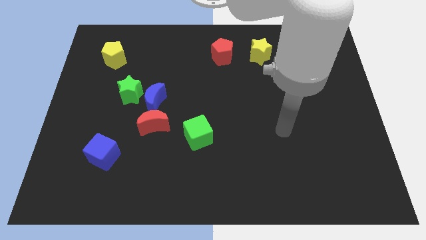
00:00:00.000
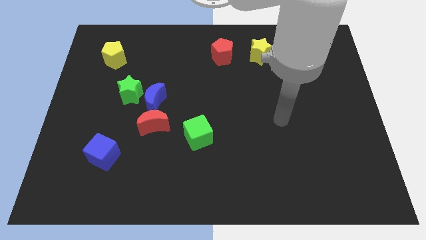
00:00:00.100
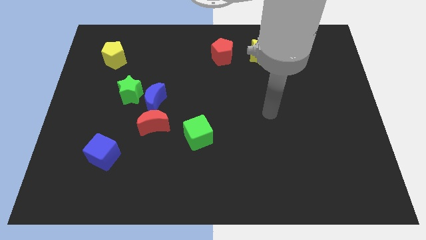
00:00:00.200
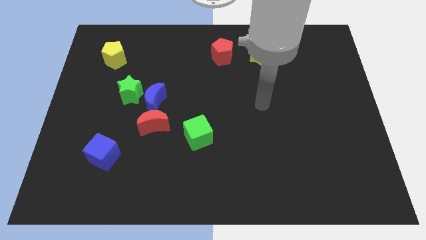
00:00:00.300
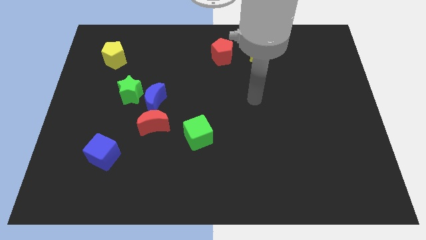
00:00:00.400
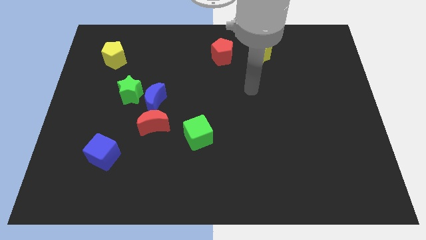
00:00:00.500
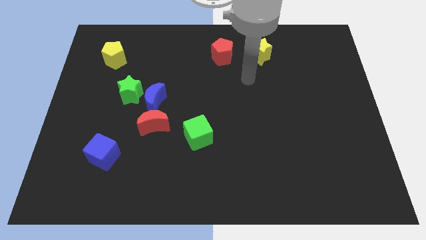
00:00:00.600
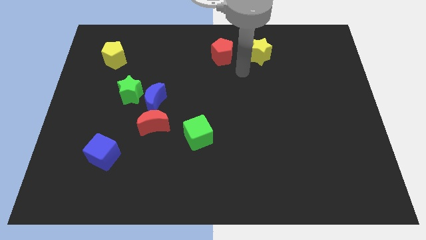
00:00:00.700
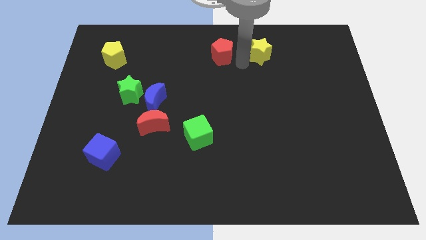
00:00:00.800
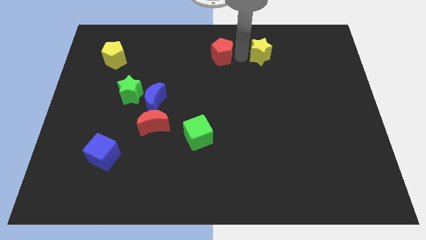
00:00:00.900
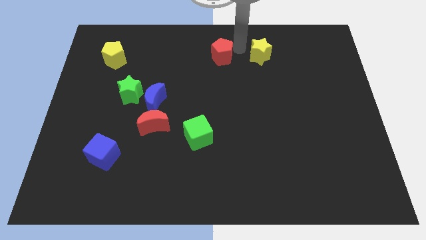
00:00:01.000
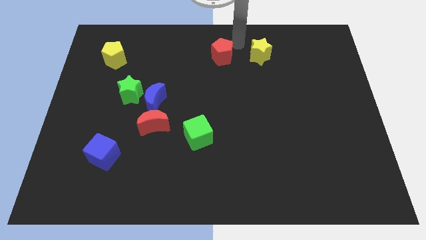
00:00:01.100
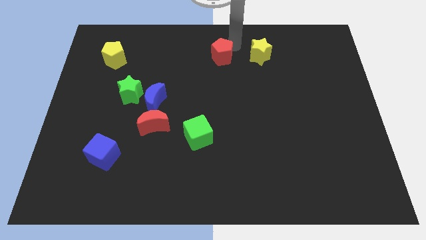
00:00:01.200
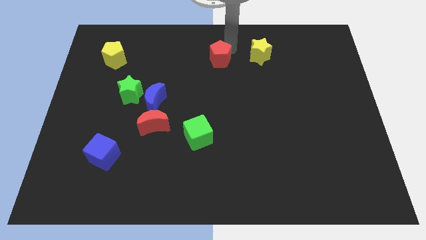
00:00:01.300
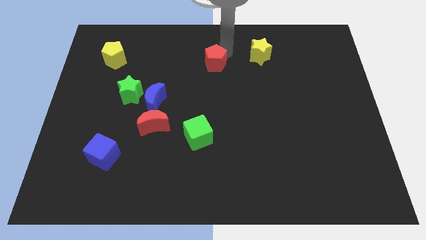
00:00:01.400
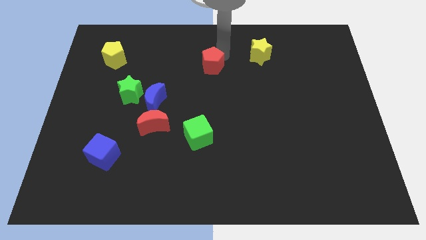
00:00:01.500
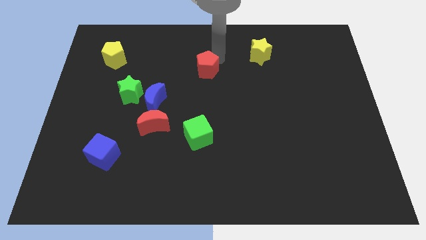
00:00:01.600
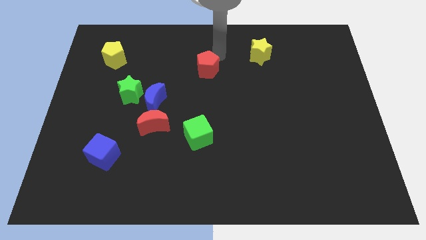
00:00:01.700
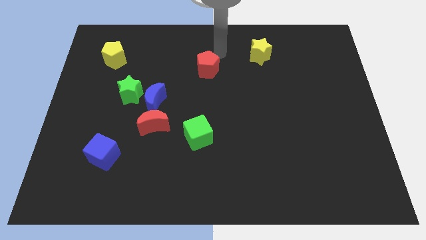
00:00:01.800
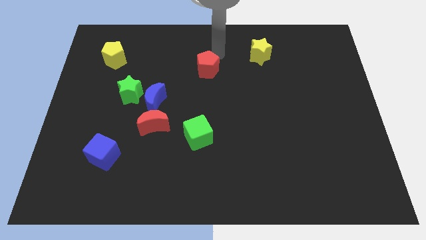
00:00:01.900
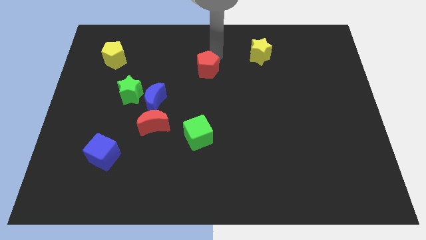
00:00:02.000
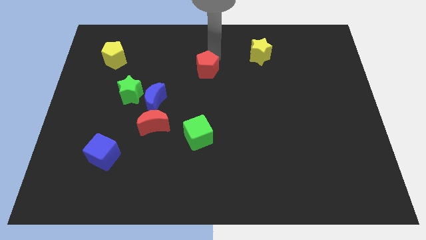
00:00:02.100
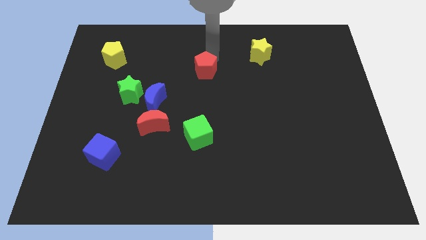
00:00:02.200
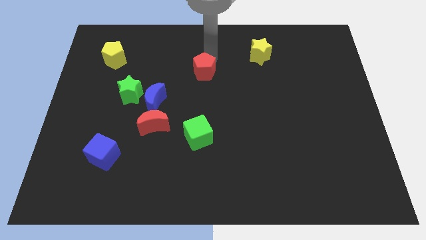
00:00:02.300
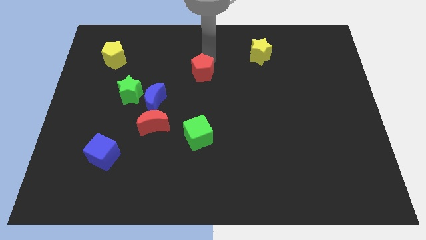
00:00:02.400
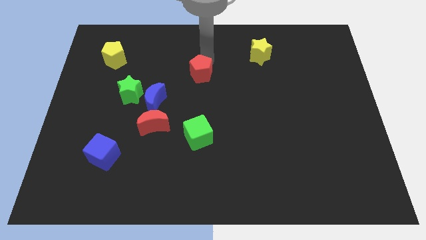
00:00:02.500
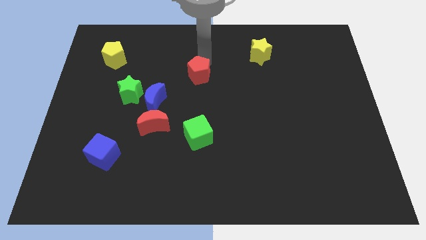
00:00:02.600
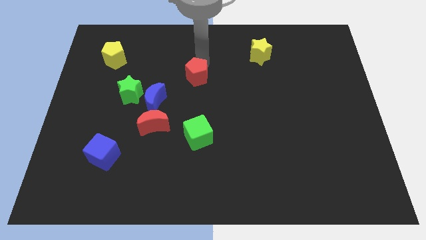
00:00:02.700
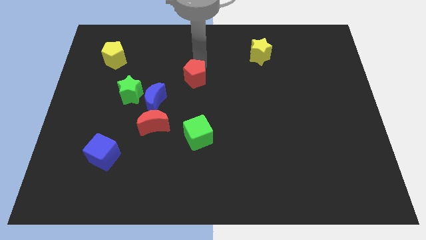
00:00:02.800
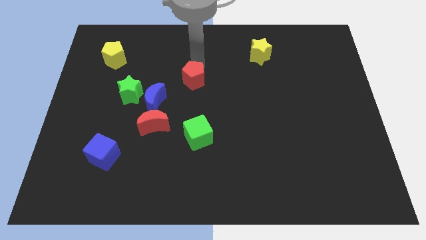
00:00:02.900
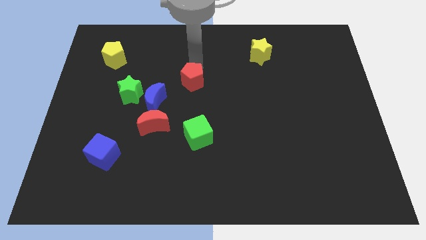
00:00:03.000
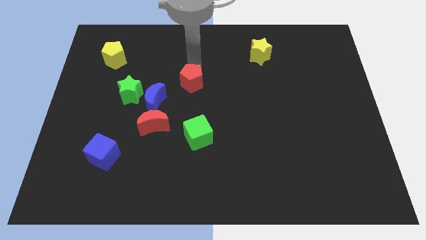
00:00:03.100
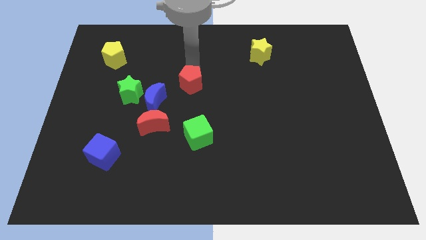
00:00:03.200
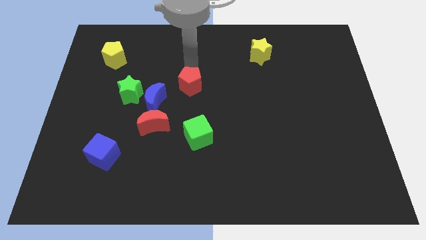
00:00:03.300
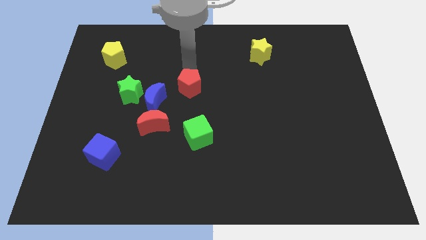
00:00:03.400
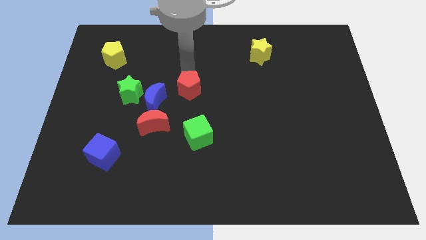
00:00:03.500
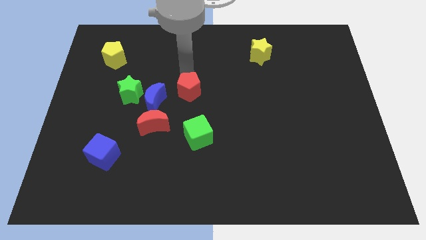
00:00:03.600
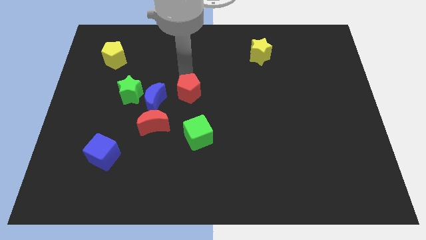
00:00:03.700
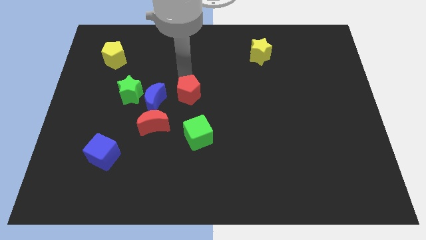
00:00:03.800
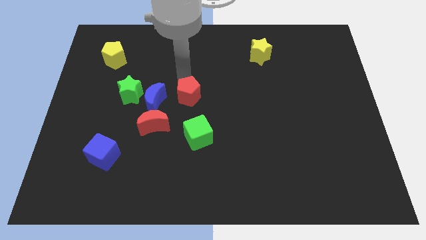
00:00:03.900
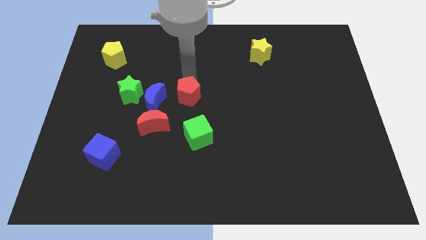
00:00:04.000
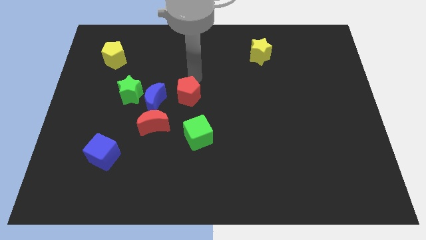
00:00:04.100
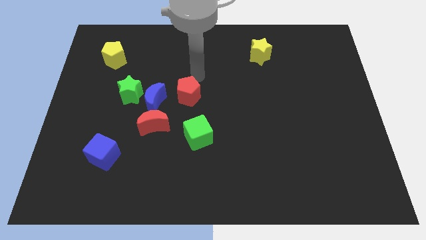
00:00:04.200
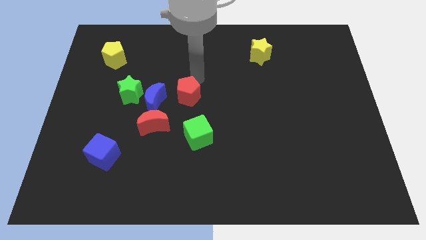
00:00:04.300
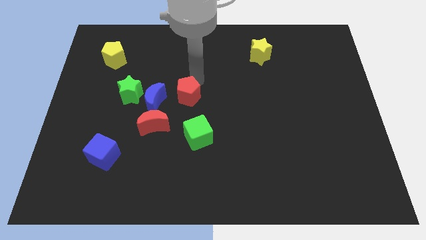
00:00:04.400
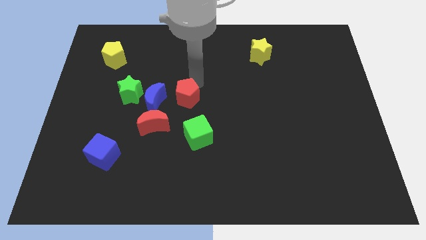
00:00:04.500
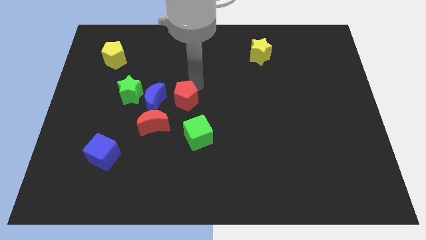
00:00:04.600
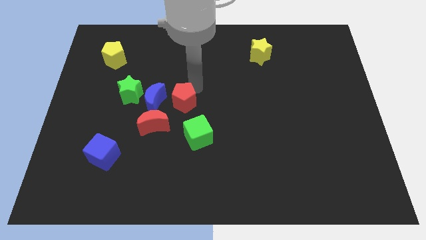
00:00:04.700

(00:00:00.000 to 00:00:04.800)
slide the red pentagon diagonally up and to the left of the green cube

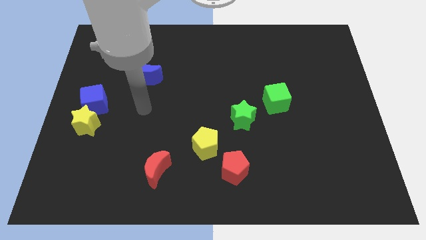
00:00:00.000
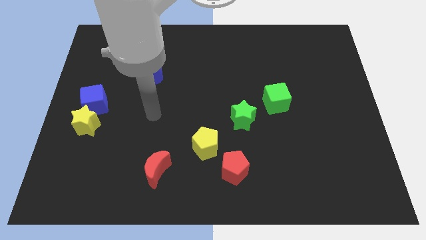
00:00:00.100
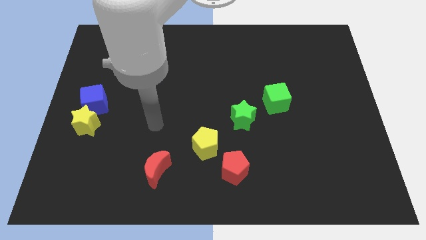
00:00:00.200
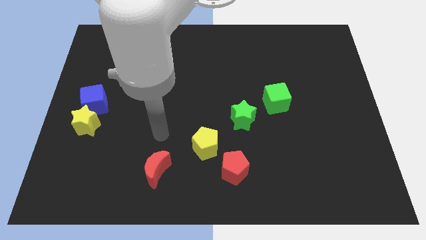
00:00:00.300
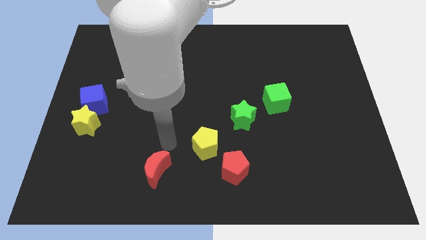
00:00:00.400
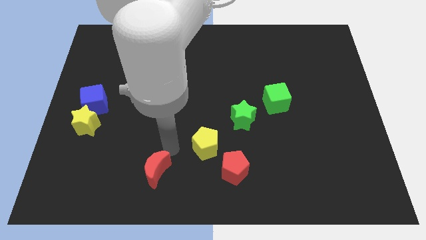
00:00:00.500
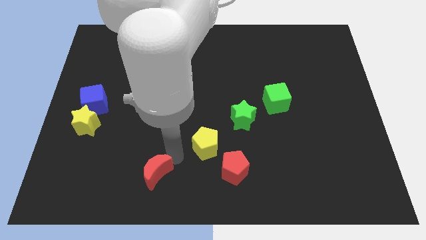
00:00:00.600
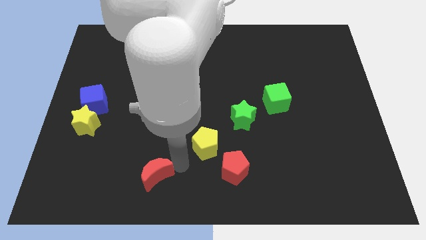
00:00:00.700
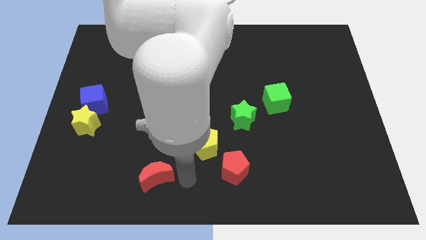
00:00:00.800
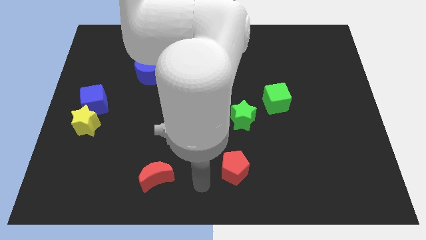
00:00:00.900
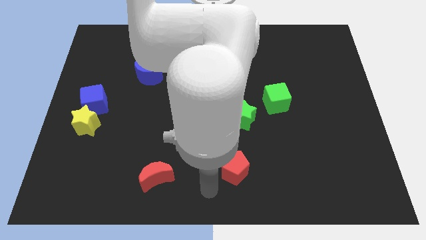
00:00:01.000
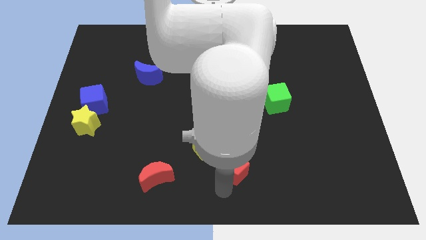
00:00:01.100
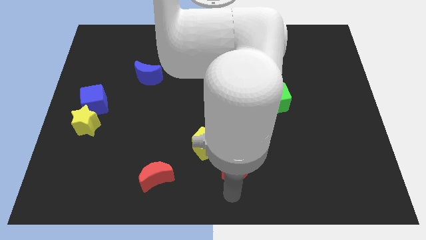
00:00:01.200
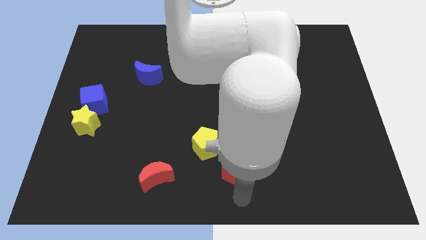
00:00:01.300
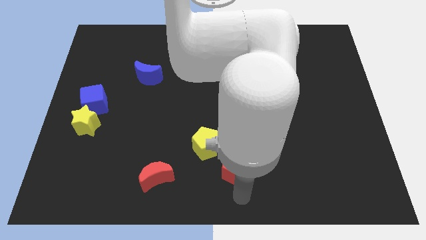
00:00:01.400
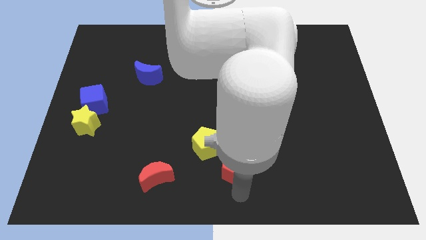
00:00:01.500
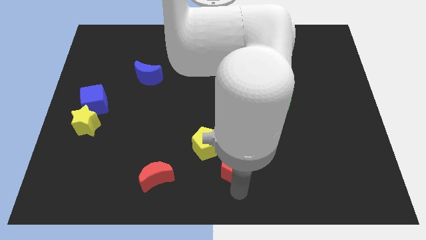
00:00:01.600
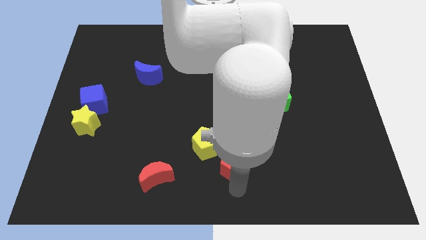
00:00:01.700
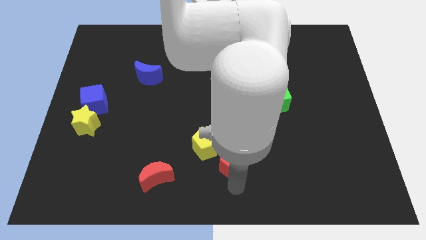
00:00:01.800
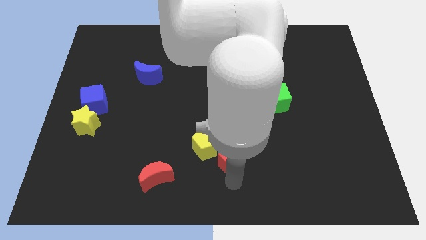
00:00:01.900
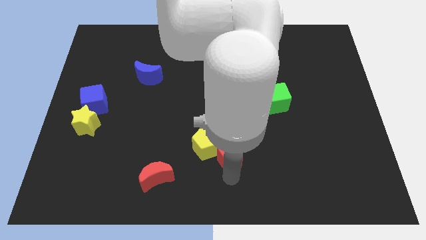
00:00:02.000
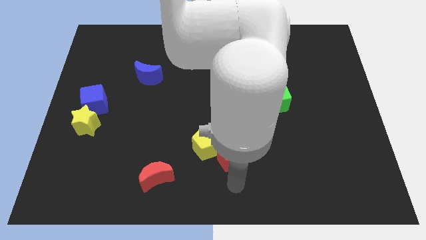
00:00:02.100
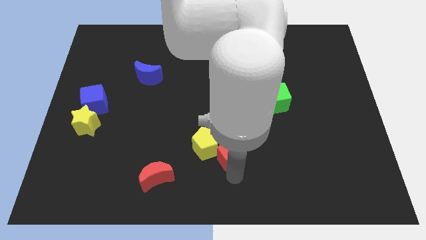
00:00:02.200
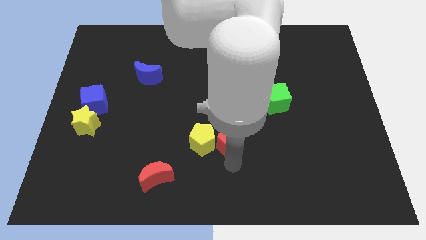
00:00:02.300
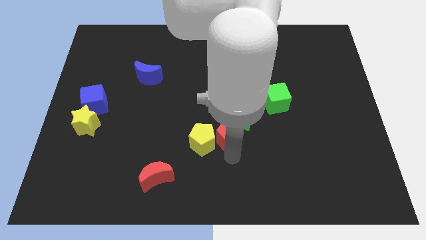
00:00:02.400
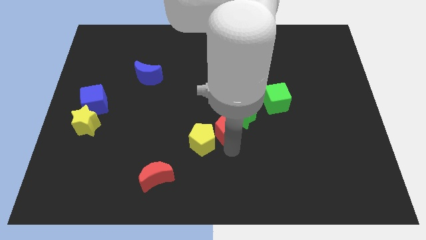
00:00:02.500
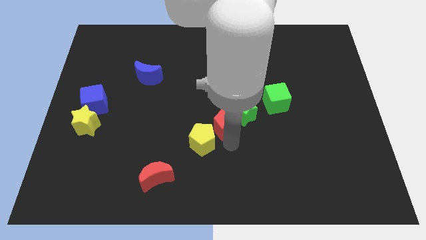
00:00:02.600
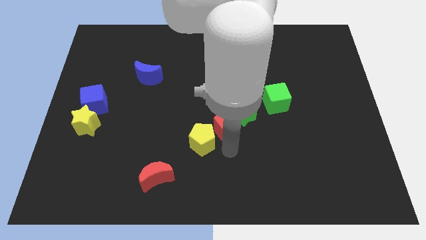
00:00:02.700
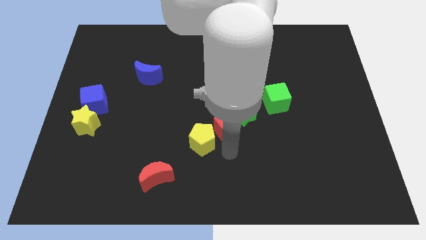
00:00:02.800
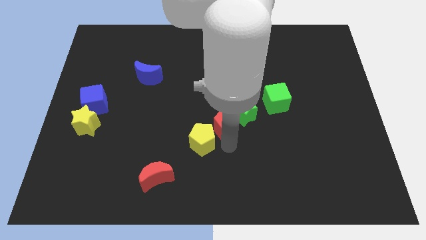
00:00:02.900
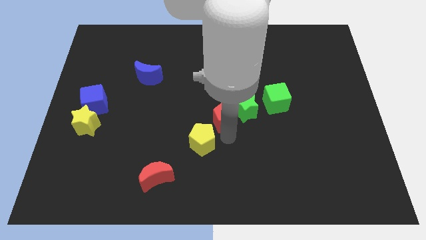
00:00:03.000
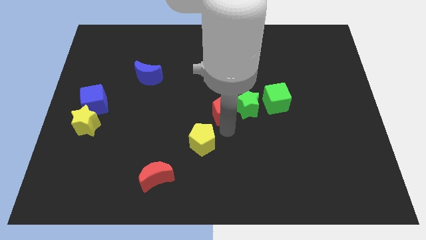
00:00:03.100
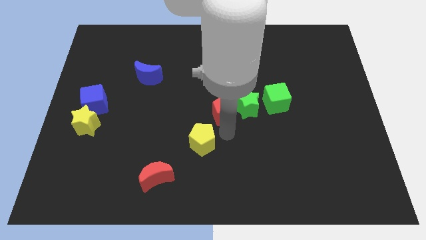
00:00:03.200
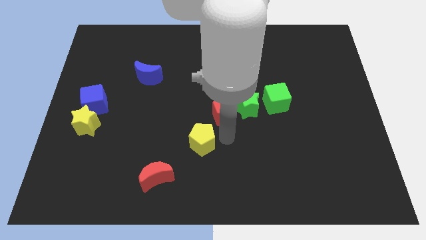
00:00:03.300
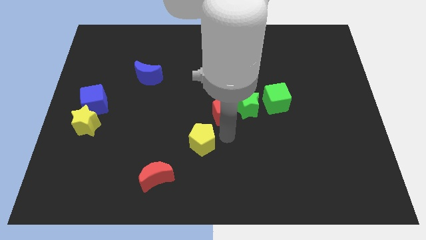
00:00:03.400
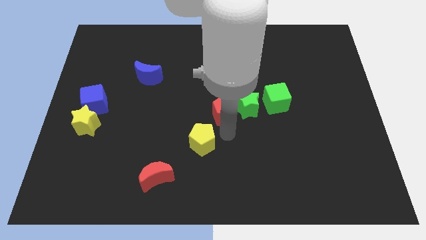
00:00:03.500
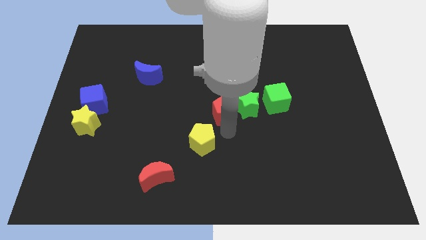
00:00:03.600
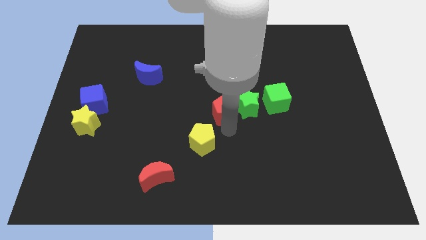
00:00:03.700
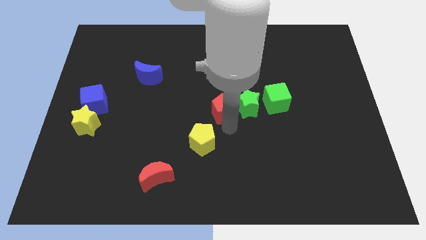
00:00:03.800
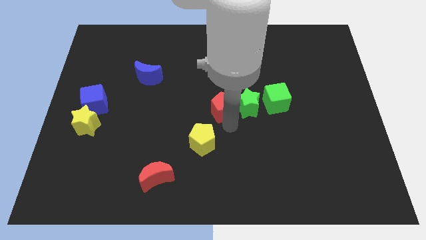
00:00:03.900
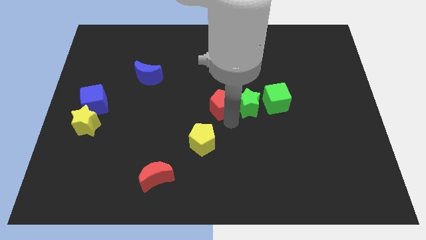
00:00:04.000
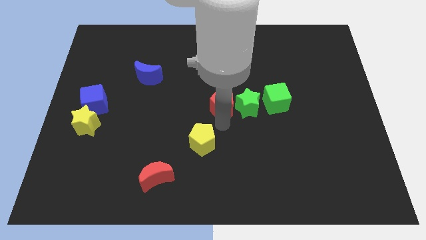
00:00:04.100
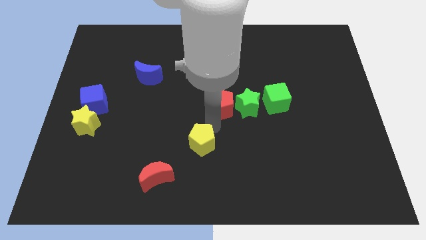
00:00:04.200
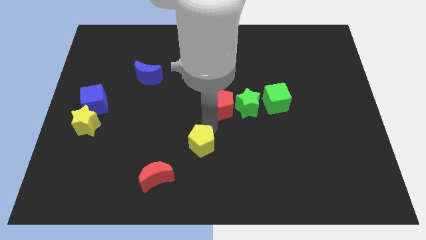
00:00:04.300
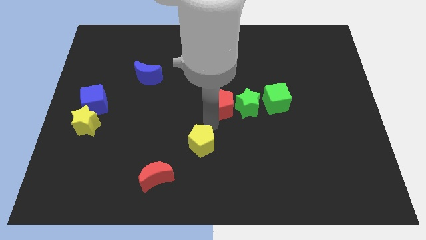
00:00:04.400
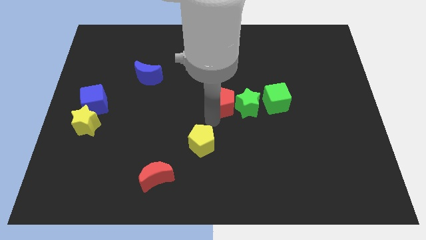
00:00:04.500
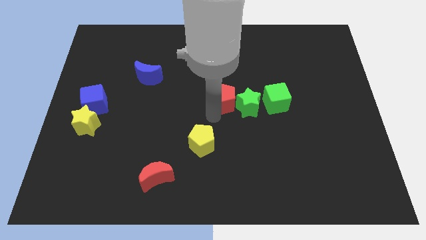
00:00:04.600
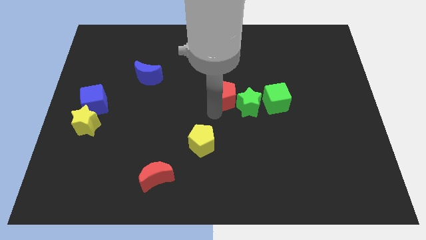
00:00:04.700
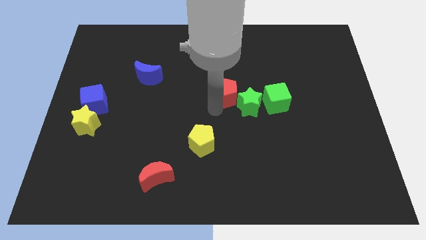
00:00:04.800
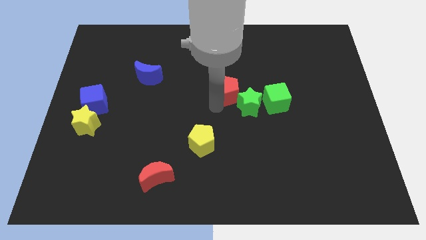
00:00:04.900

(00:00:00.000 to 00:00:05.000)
push the red pentagon to the top of the green star
